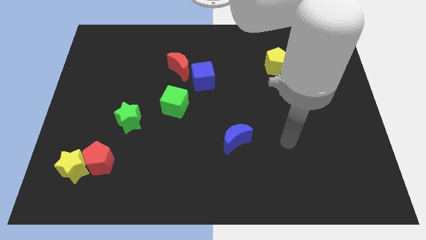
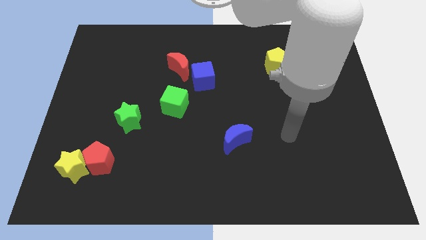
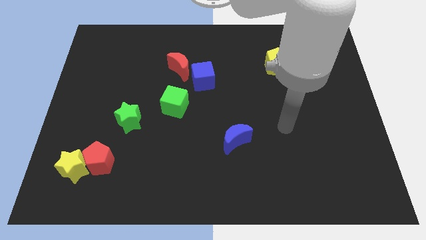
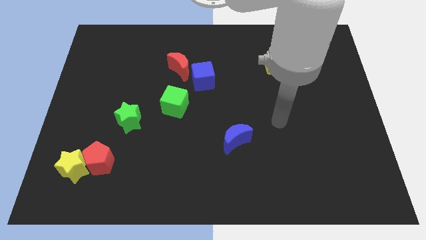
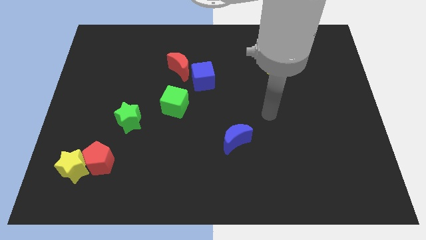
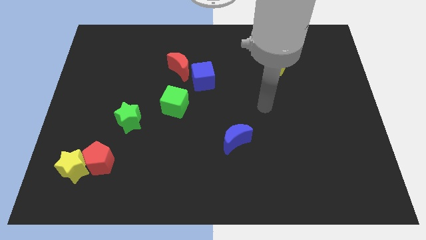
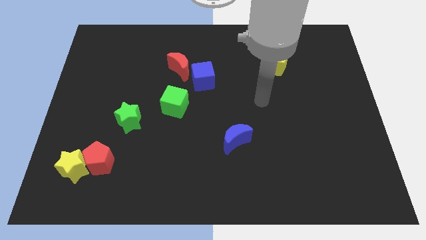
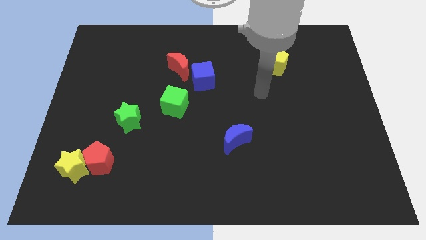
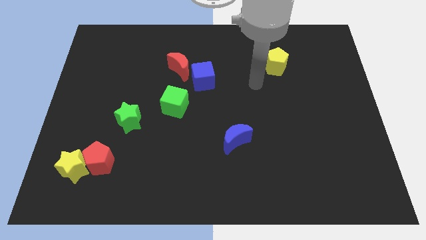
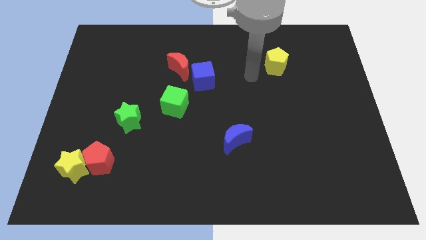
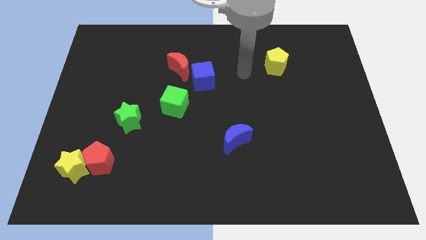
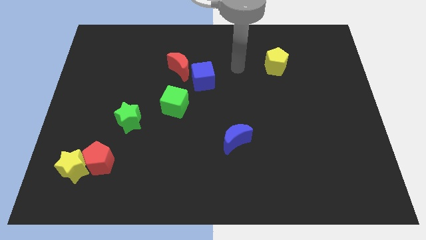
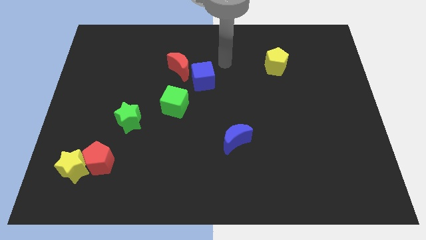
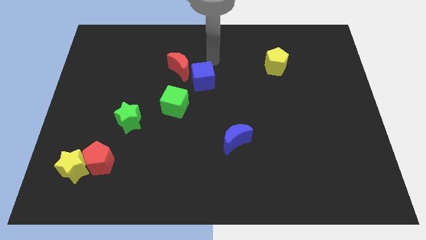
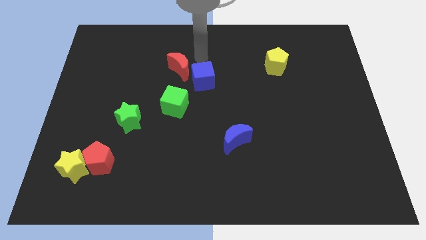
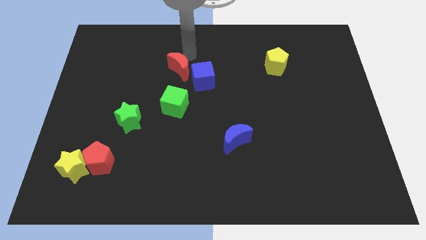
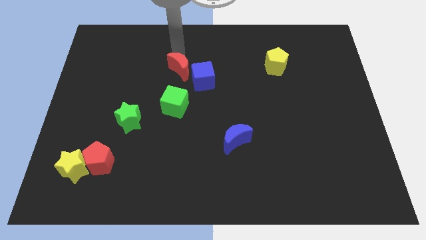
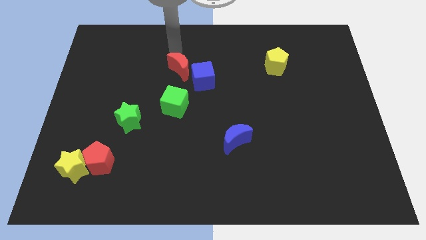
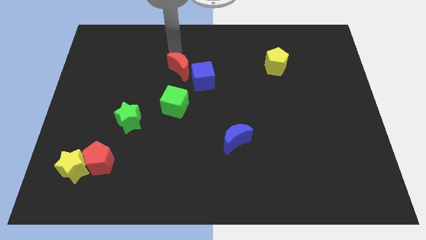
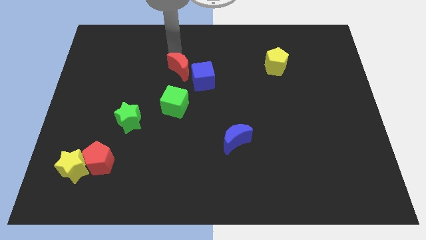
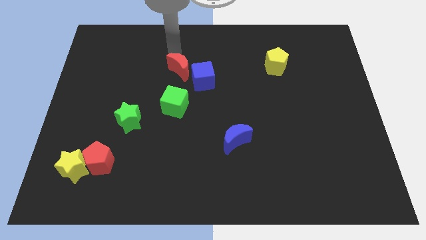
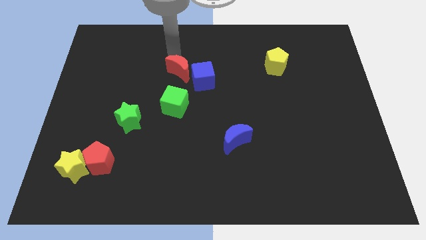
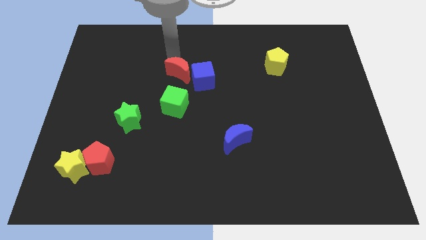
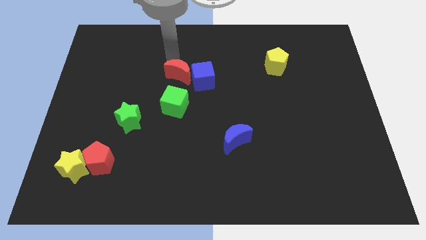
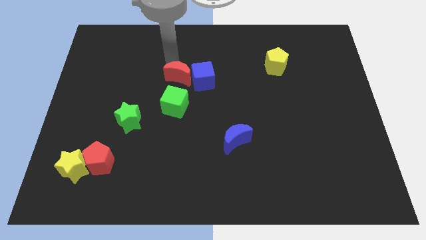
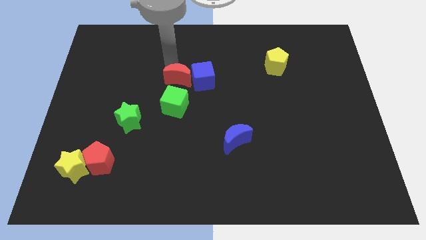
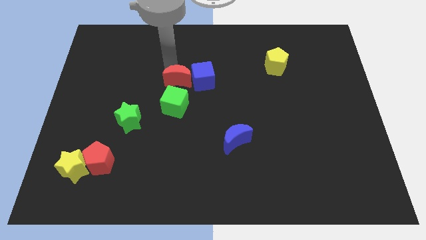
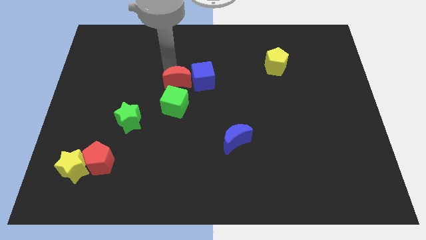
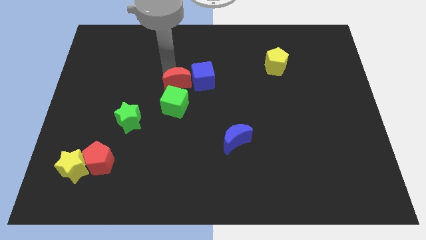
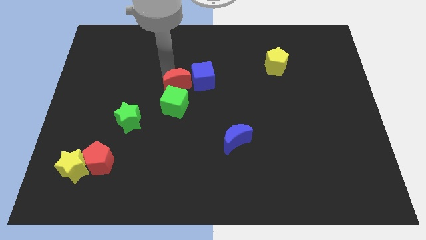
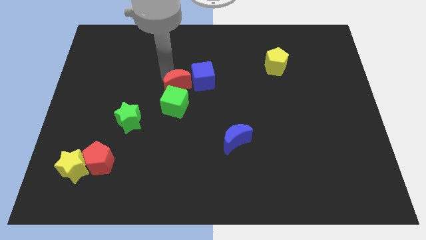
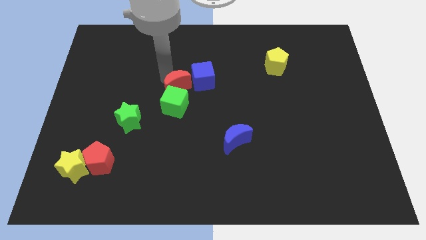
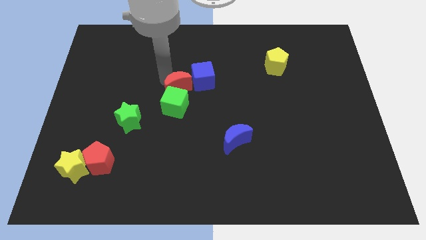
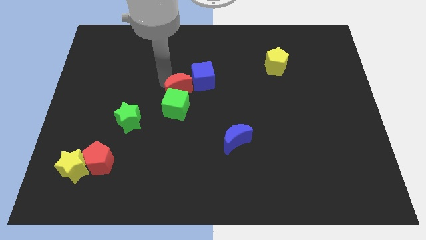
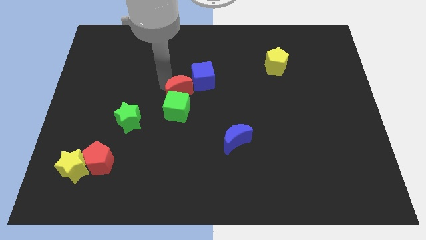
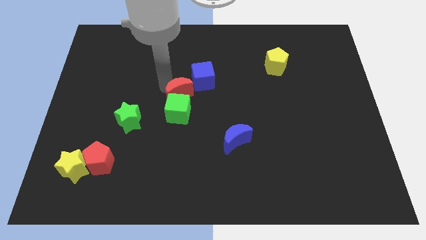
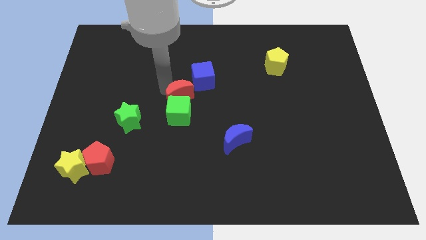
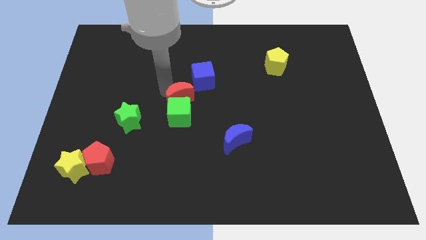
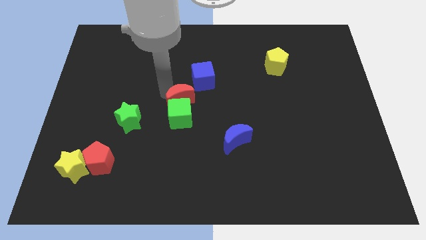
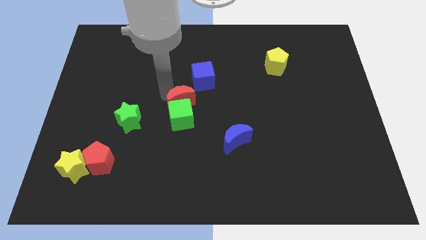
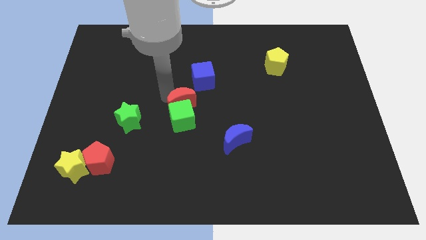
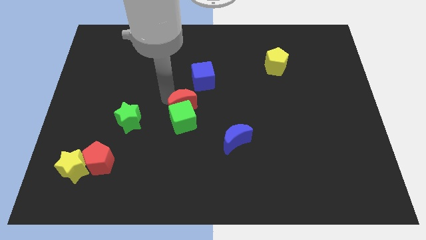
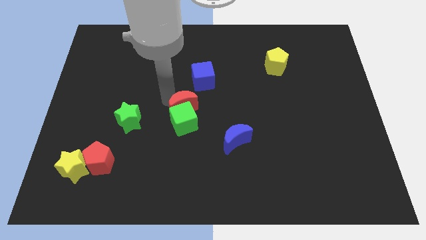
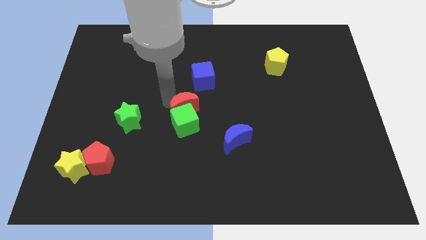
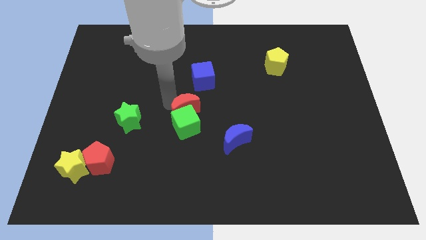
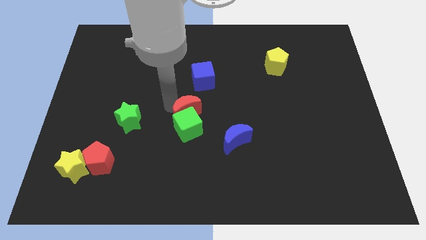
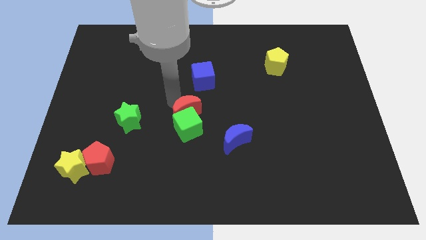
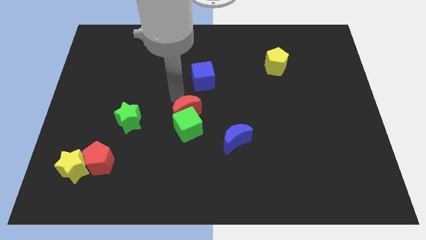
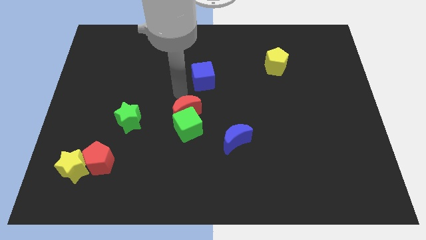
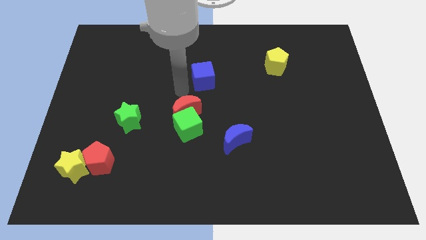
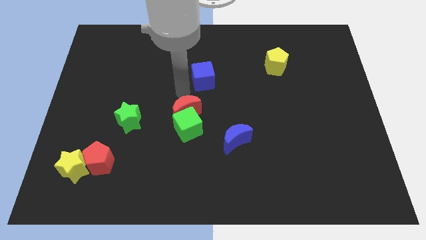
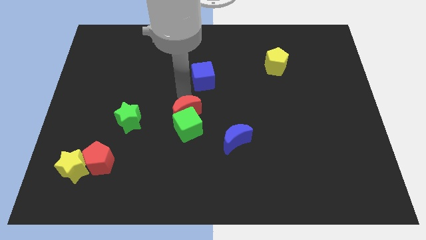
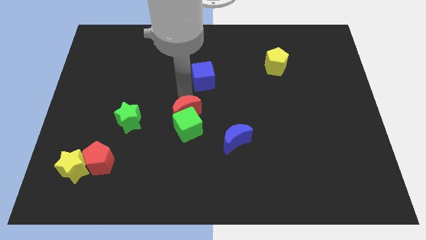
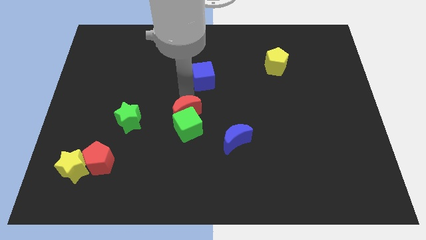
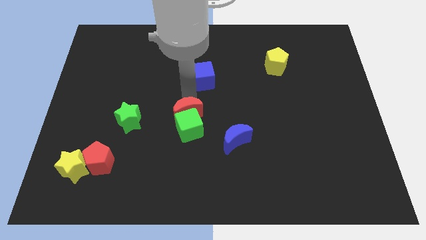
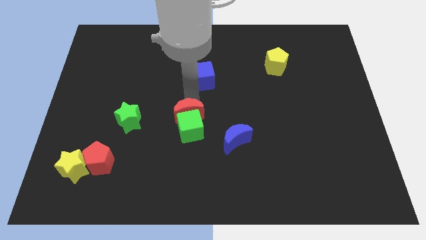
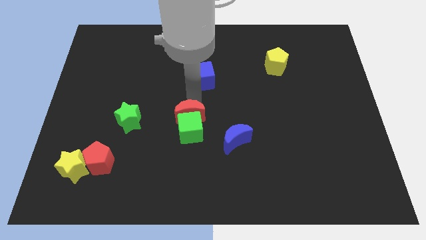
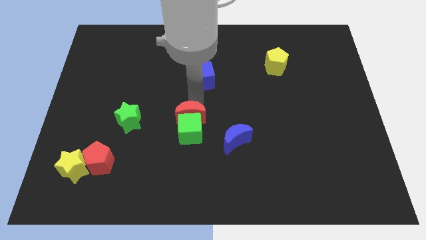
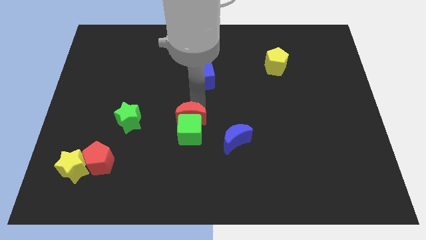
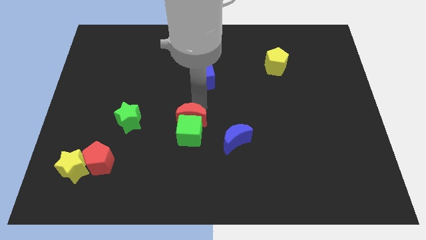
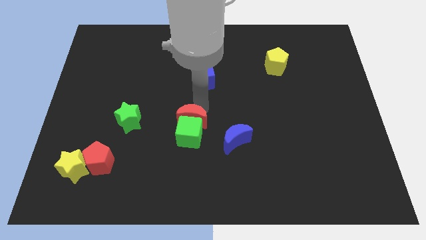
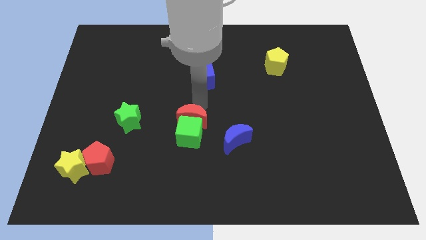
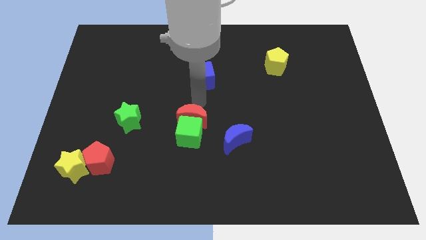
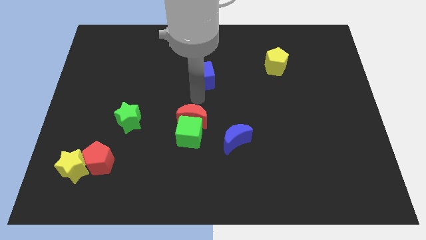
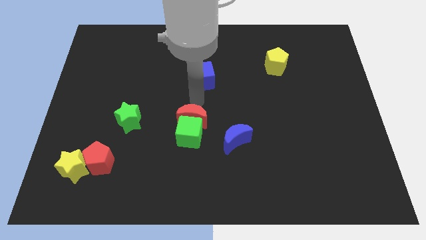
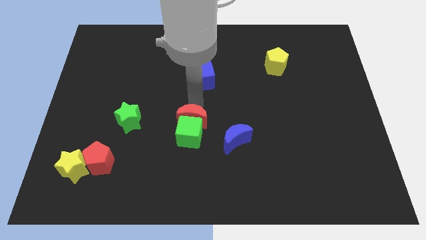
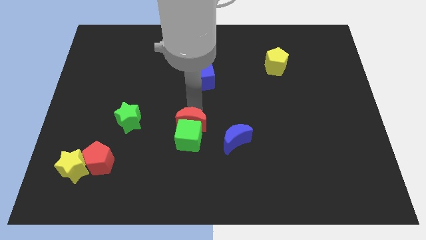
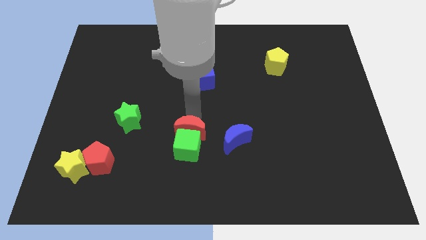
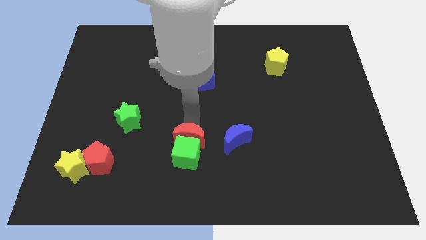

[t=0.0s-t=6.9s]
push the red moon down

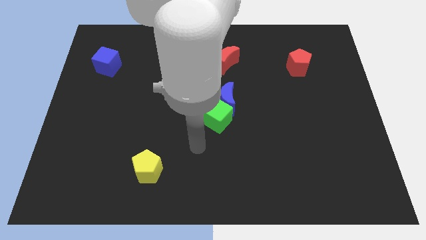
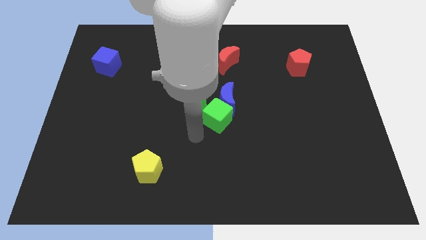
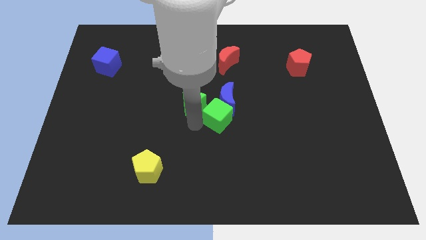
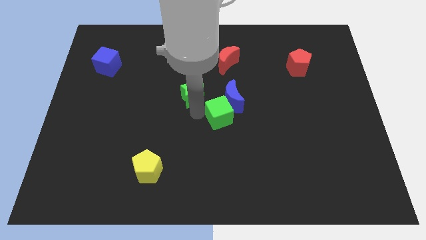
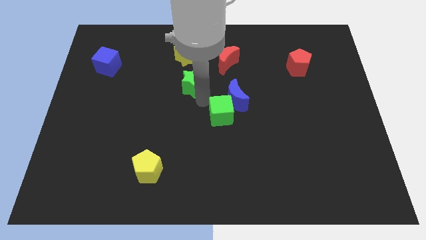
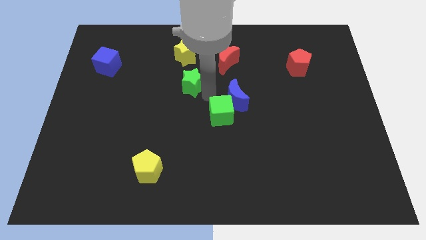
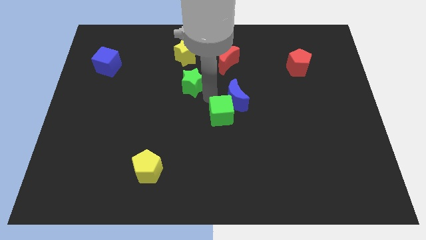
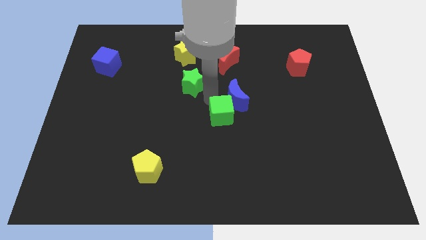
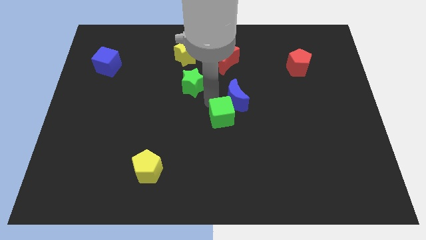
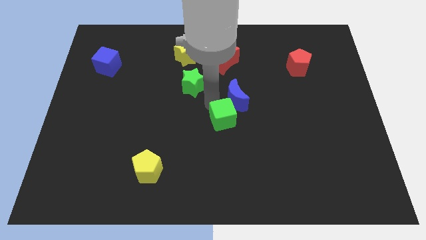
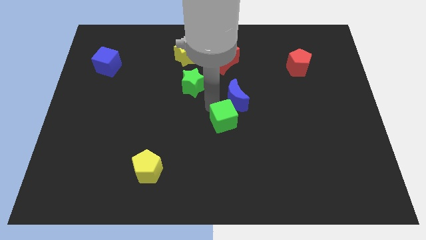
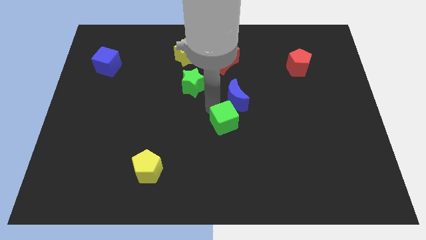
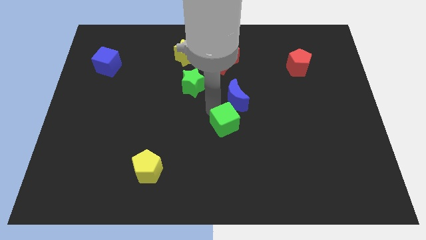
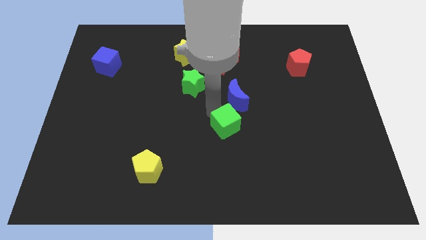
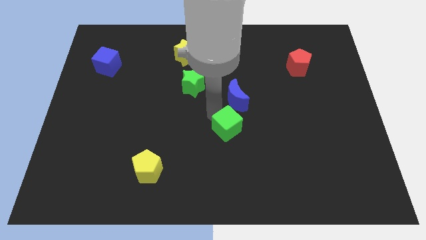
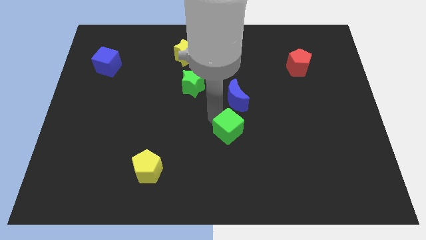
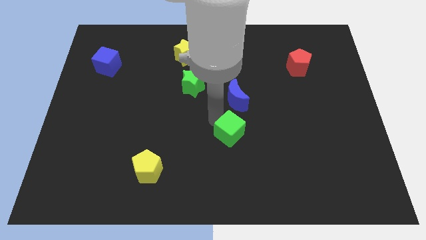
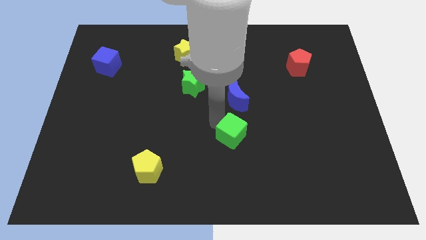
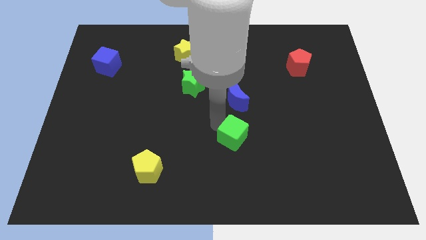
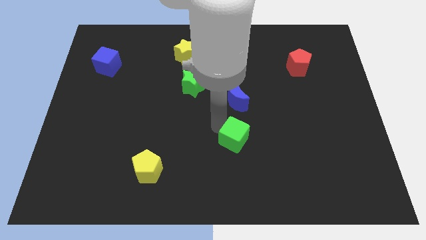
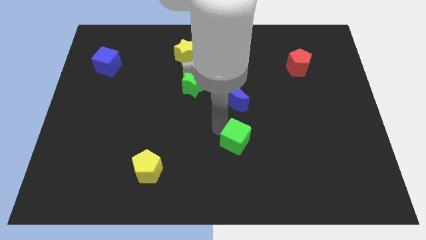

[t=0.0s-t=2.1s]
slightly push the green cube diagonally down and right
